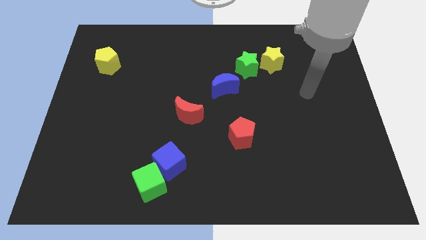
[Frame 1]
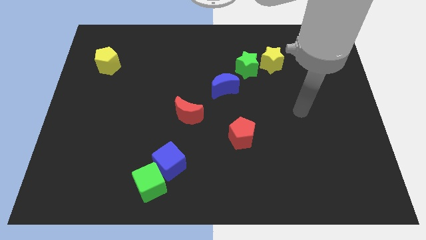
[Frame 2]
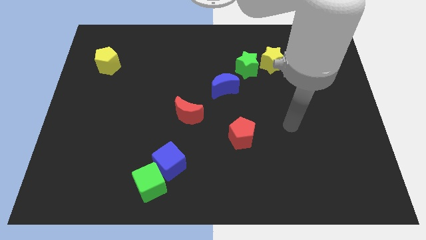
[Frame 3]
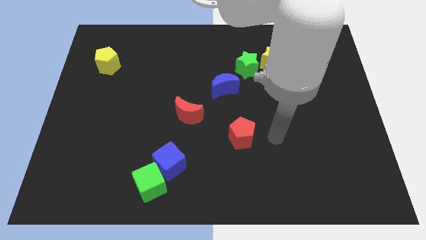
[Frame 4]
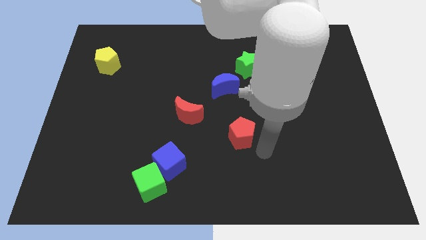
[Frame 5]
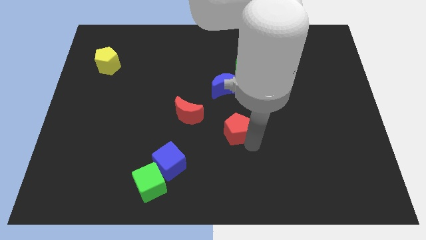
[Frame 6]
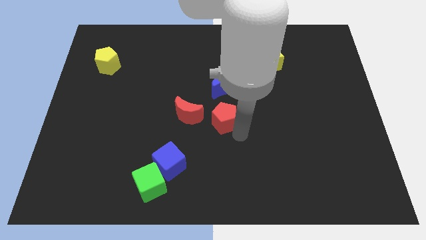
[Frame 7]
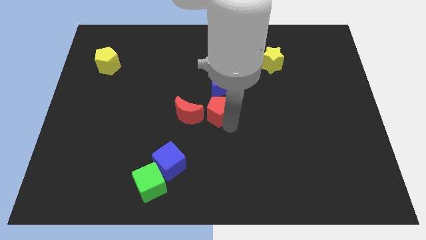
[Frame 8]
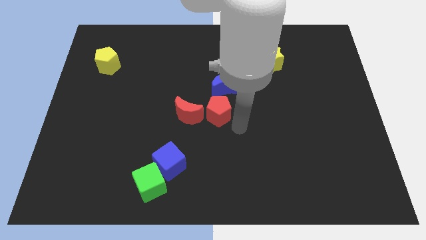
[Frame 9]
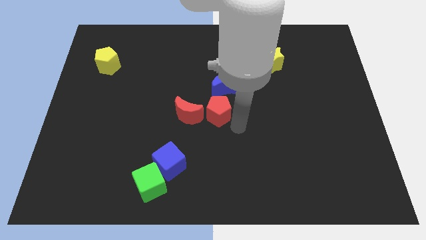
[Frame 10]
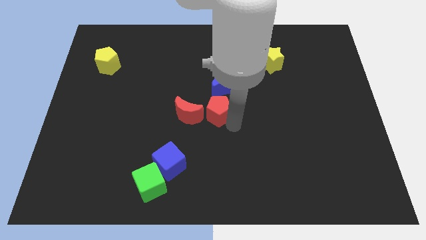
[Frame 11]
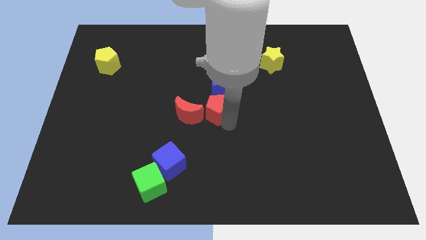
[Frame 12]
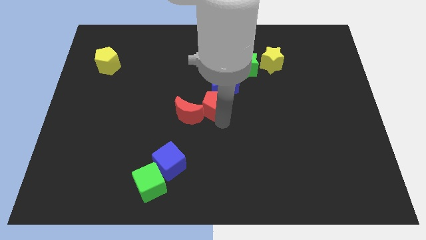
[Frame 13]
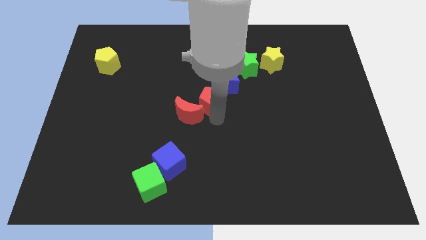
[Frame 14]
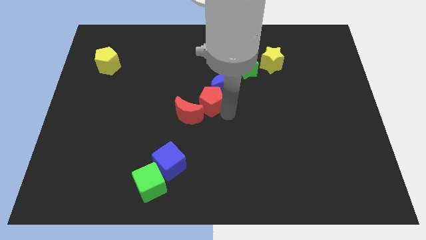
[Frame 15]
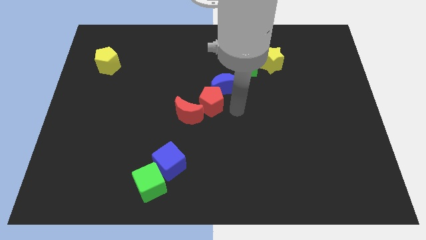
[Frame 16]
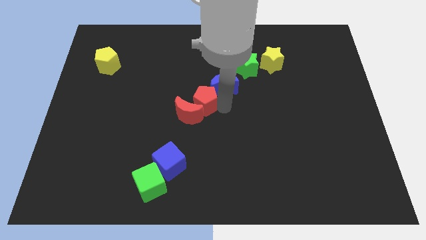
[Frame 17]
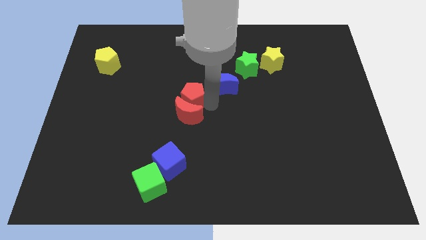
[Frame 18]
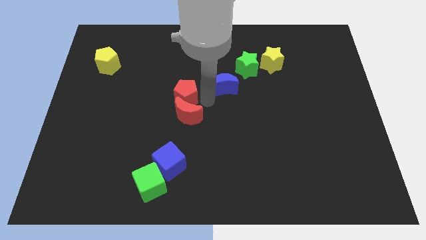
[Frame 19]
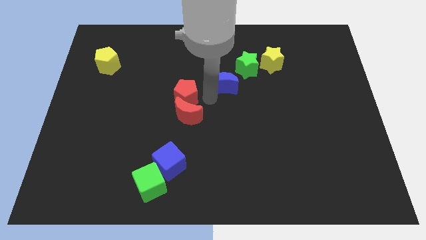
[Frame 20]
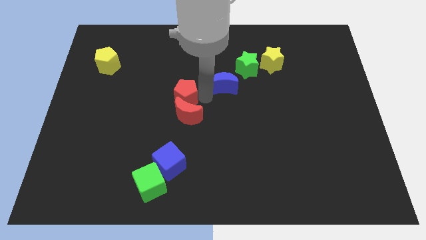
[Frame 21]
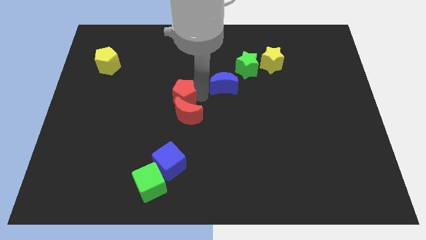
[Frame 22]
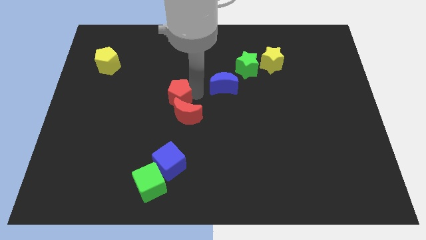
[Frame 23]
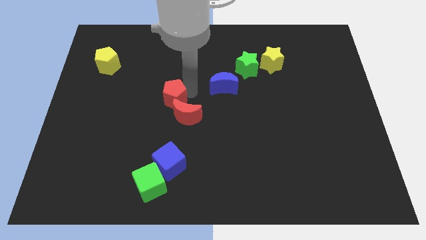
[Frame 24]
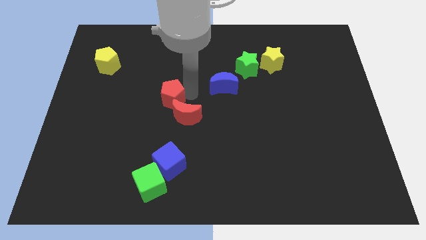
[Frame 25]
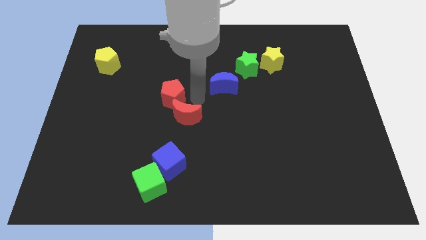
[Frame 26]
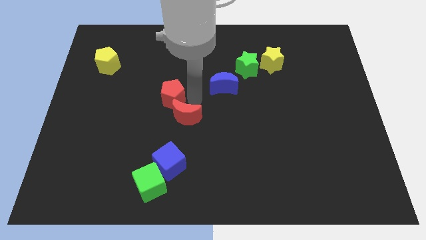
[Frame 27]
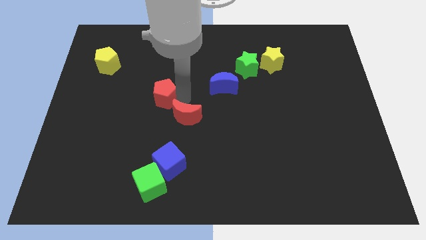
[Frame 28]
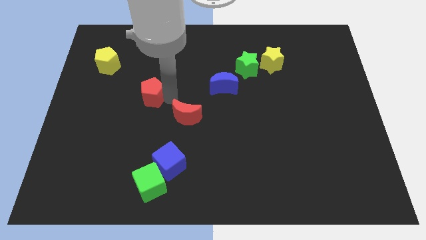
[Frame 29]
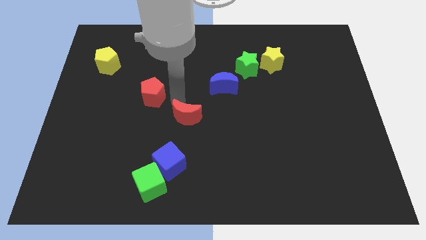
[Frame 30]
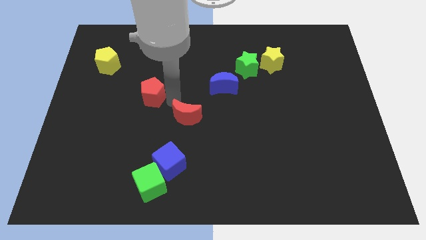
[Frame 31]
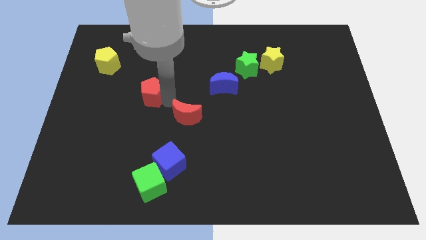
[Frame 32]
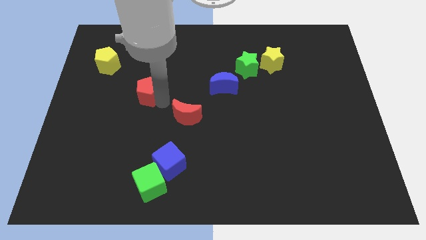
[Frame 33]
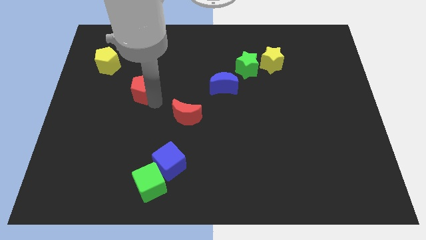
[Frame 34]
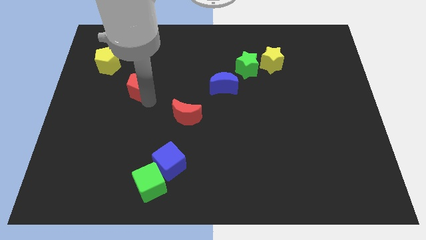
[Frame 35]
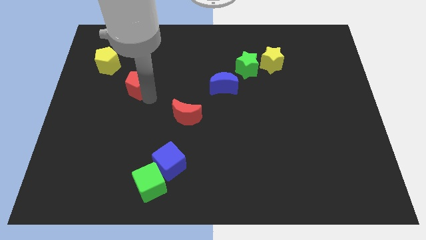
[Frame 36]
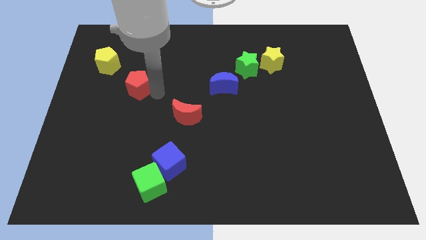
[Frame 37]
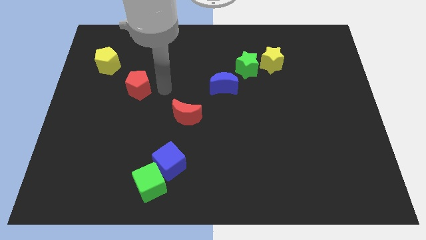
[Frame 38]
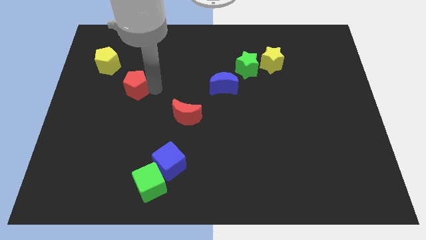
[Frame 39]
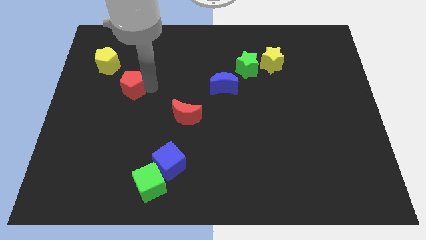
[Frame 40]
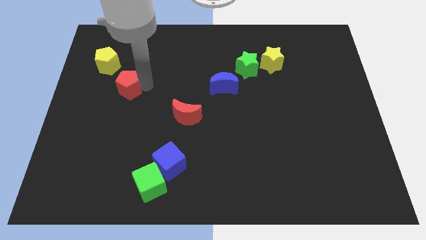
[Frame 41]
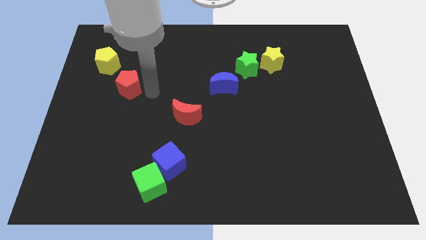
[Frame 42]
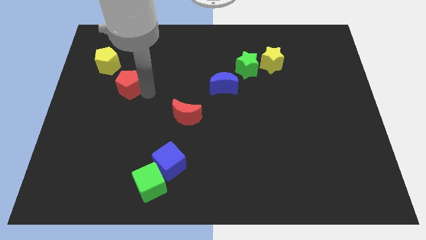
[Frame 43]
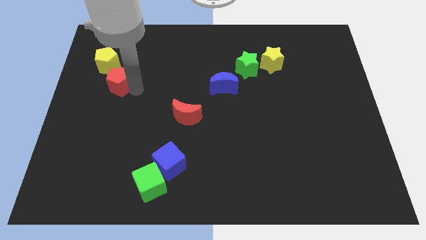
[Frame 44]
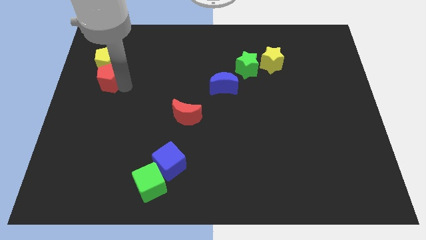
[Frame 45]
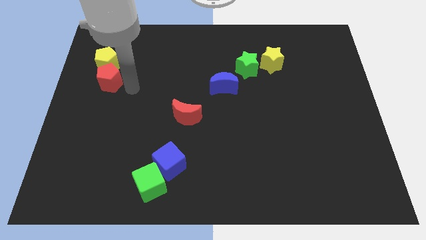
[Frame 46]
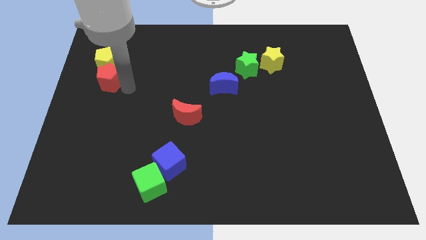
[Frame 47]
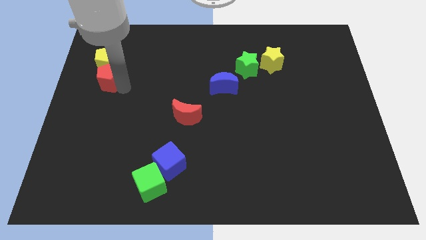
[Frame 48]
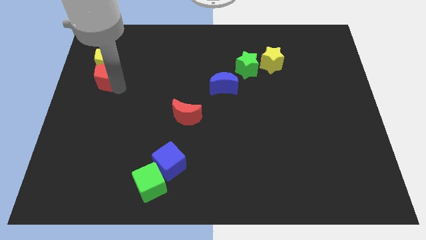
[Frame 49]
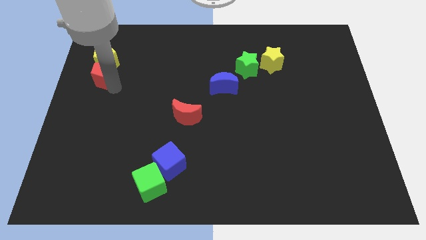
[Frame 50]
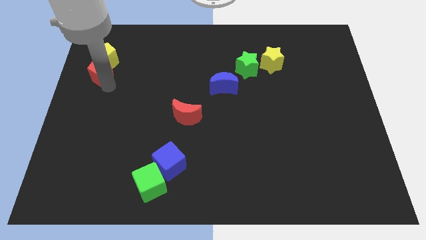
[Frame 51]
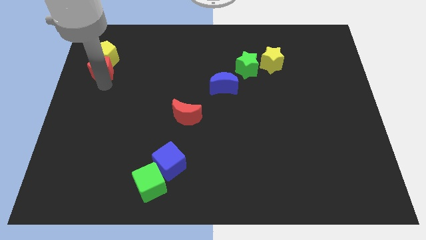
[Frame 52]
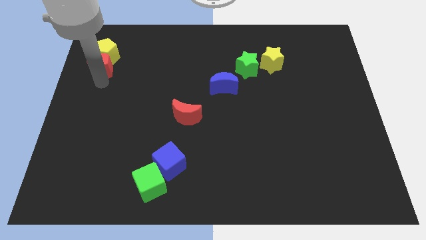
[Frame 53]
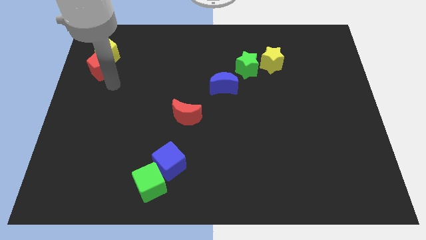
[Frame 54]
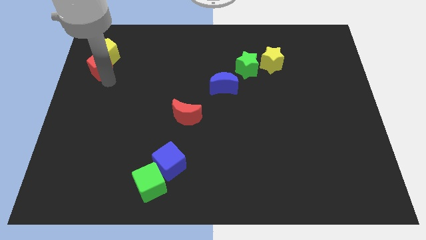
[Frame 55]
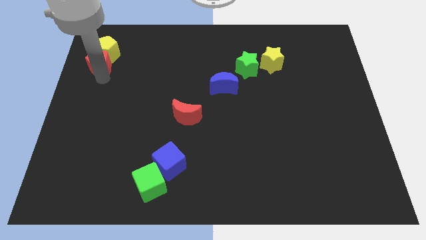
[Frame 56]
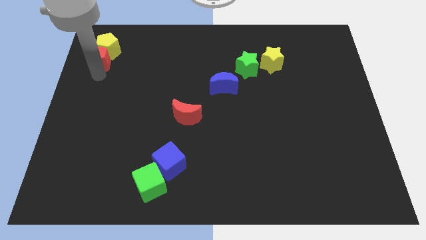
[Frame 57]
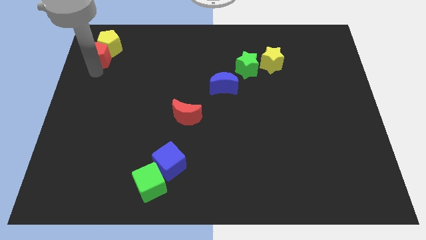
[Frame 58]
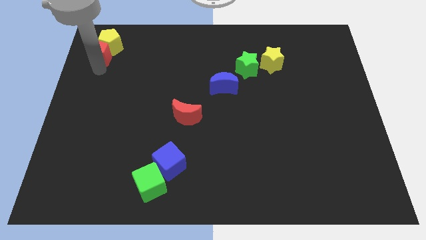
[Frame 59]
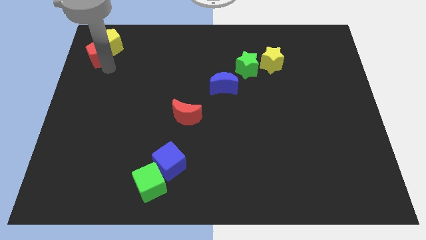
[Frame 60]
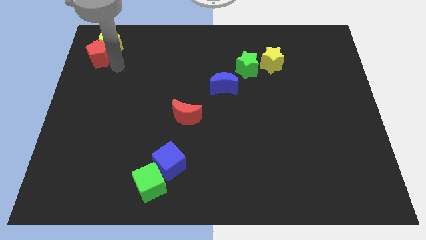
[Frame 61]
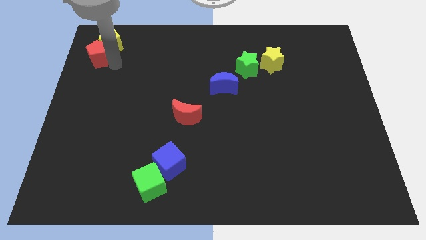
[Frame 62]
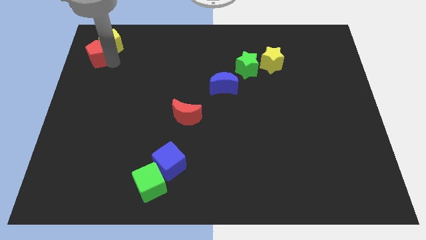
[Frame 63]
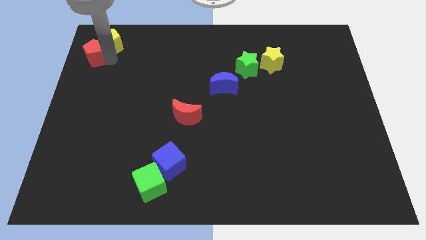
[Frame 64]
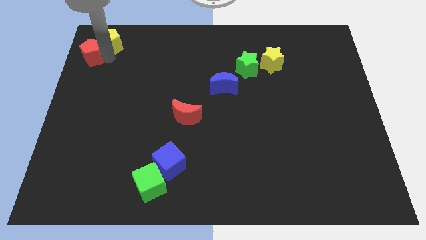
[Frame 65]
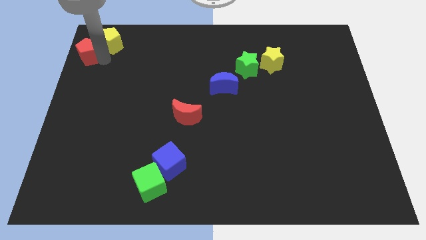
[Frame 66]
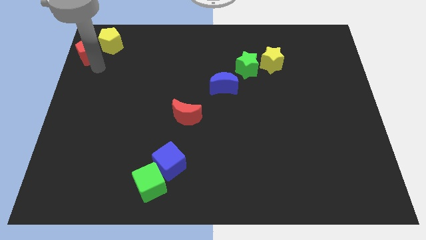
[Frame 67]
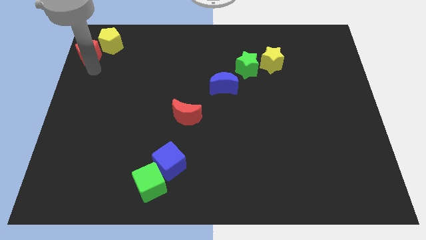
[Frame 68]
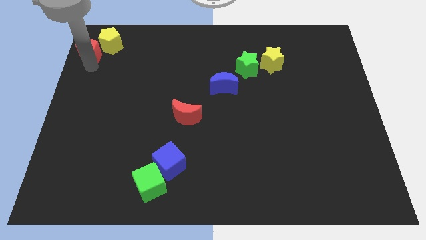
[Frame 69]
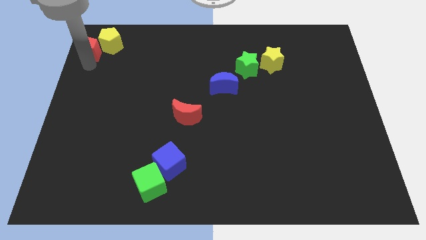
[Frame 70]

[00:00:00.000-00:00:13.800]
put the red pentagon to the top left corner
